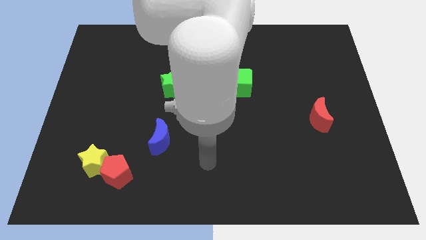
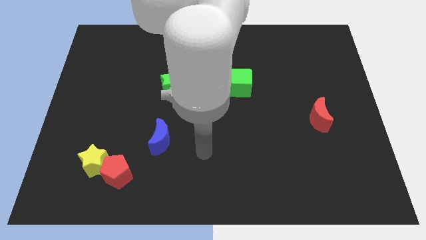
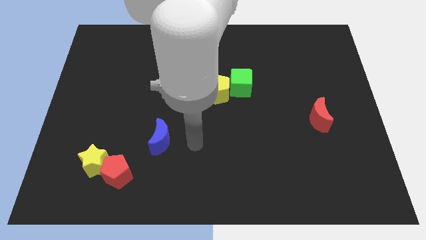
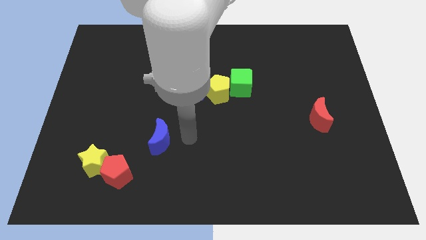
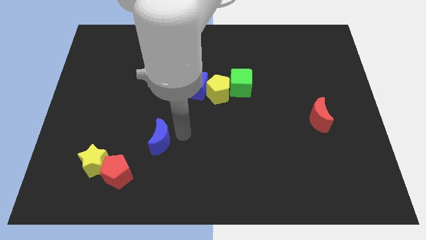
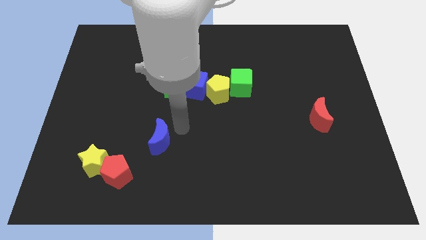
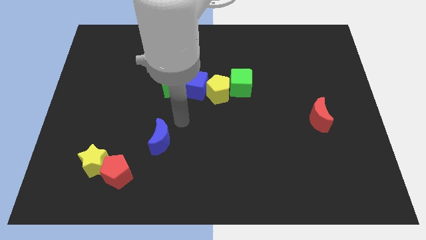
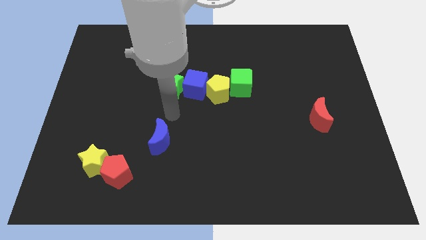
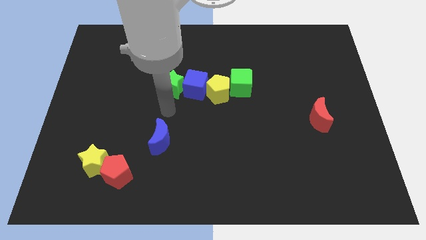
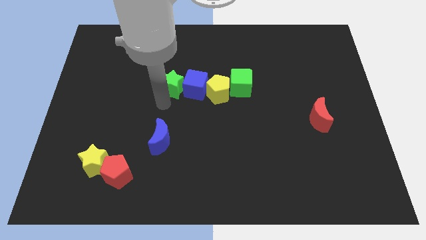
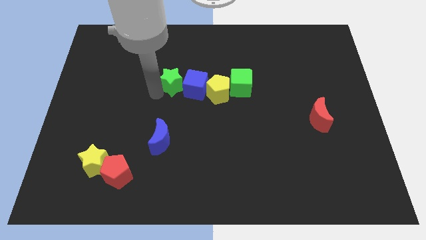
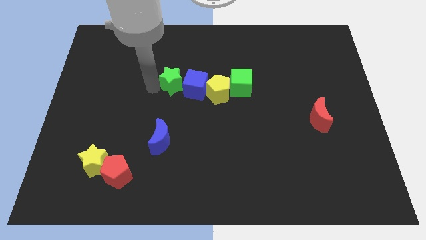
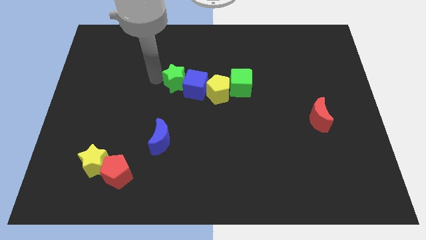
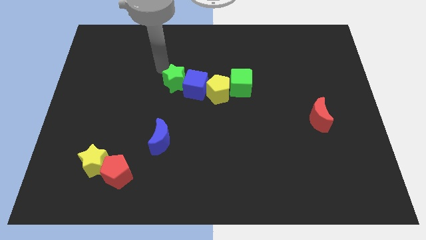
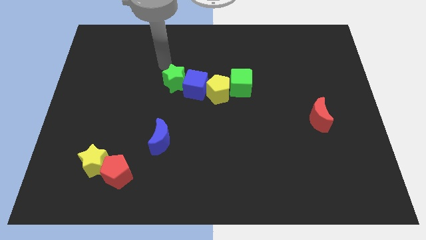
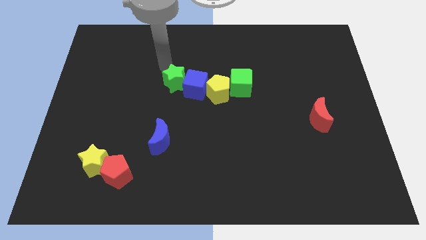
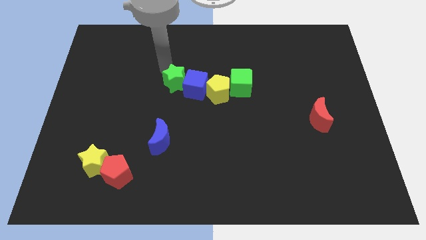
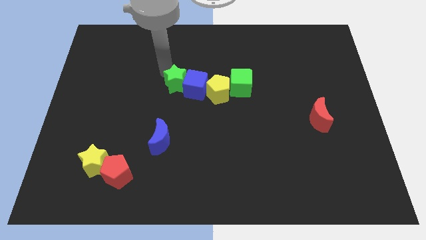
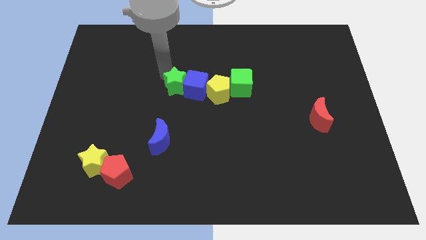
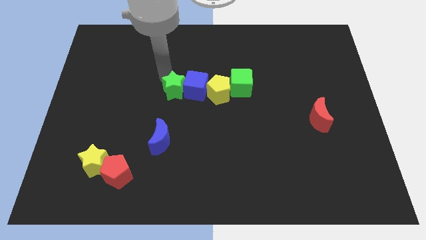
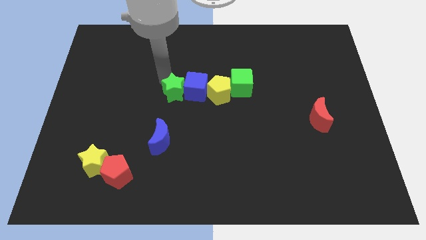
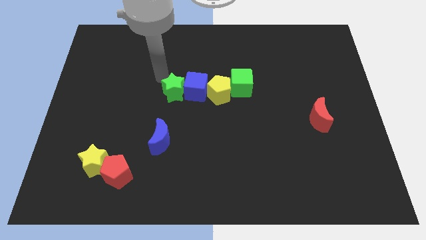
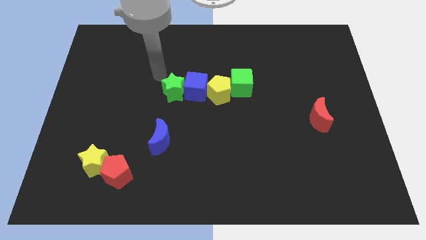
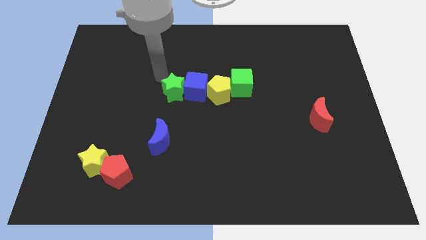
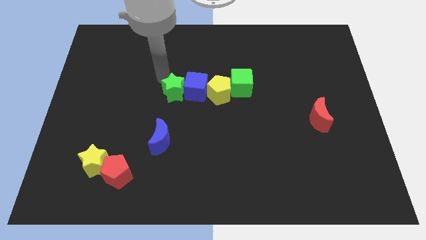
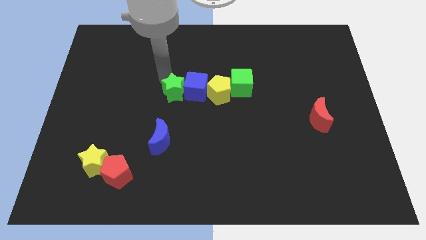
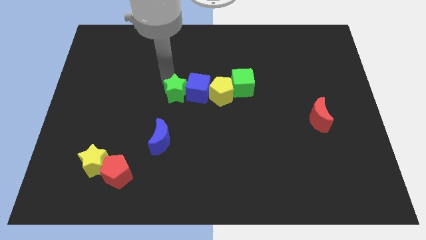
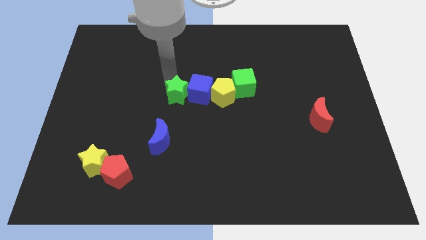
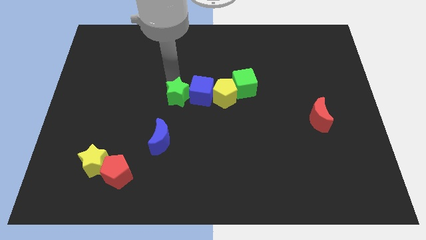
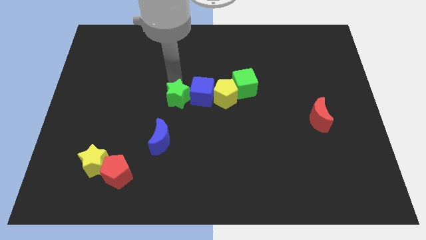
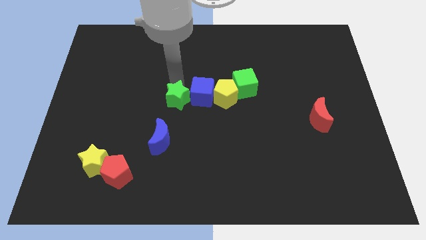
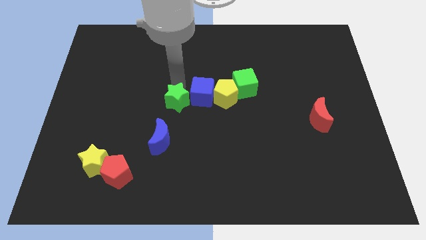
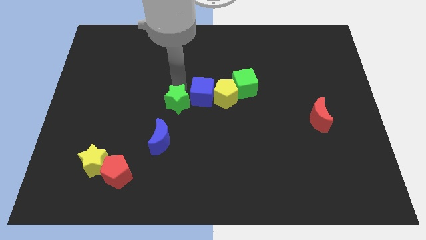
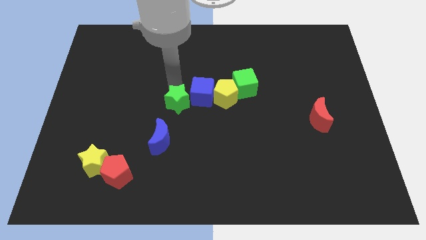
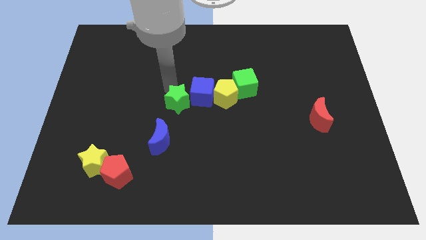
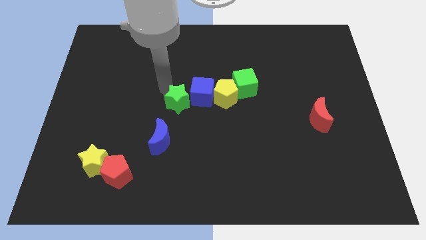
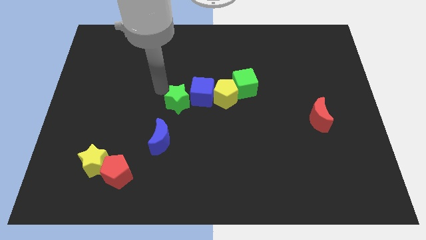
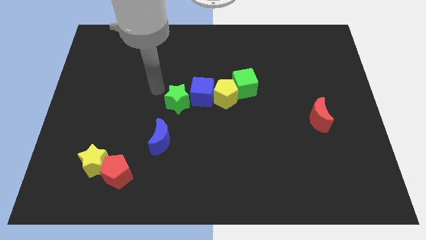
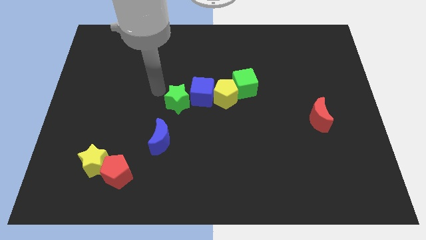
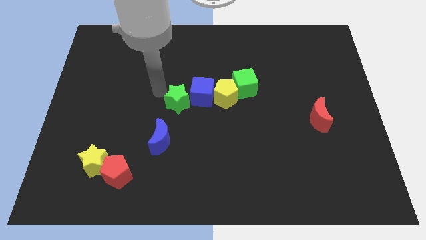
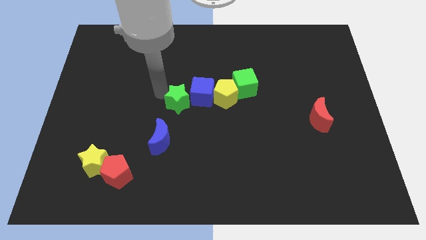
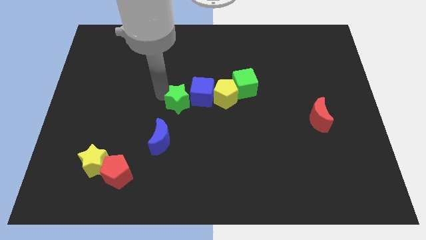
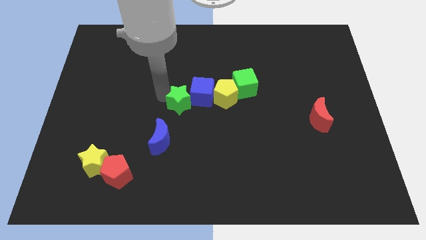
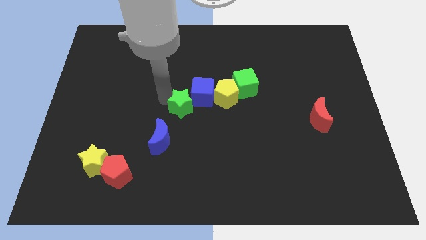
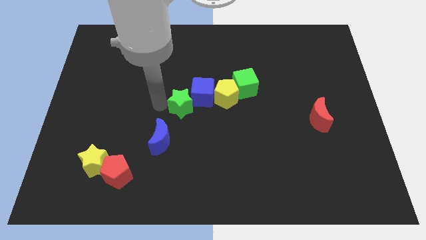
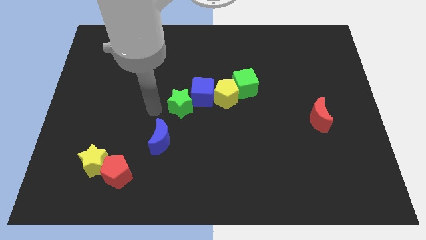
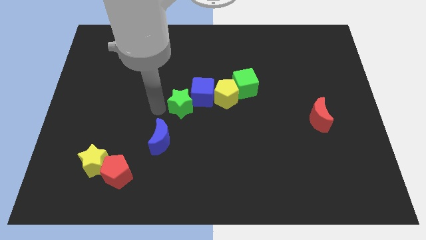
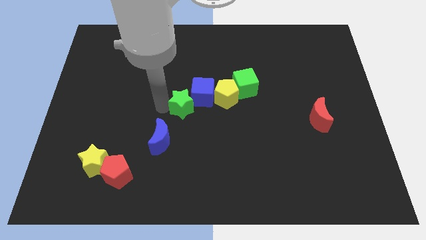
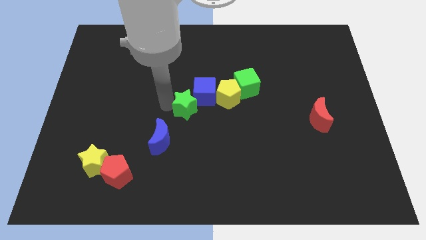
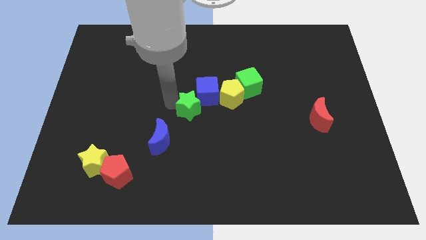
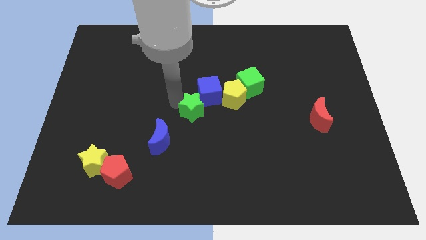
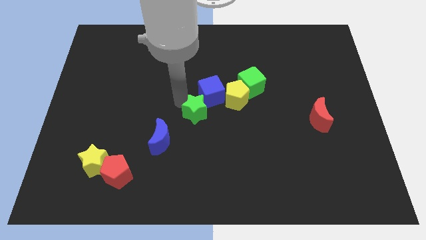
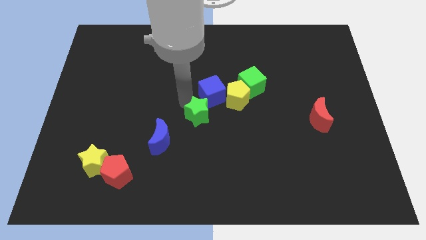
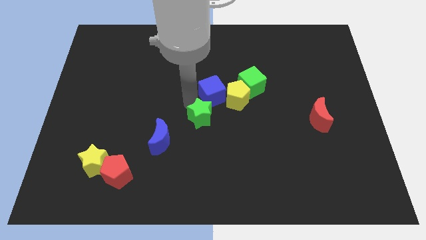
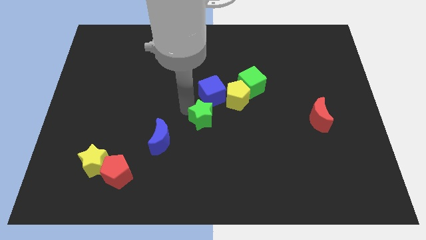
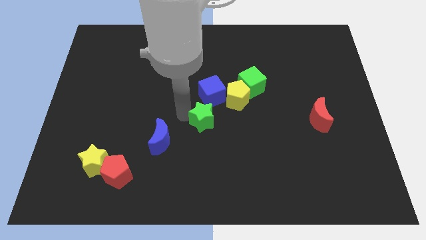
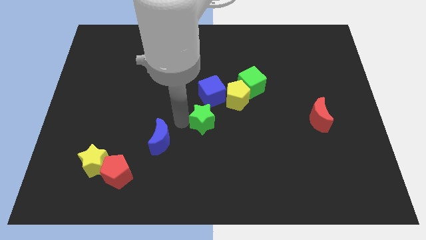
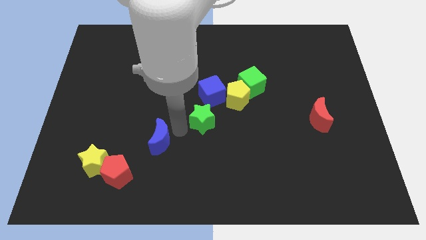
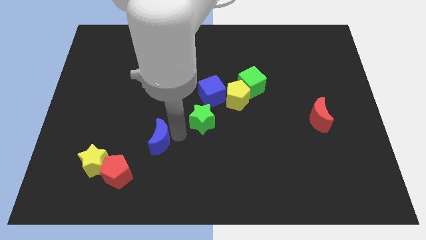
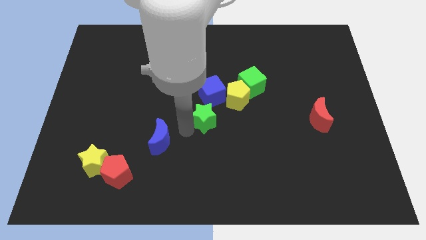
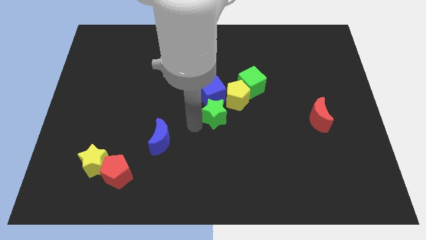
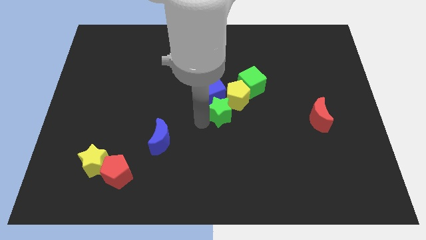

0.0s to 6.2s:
slide the green star towards the yellow pentagon

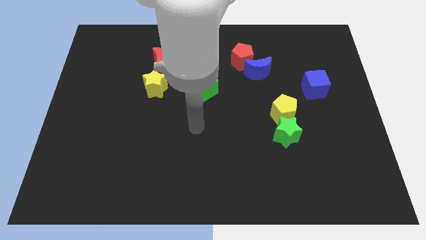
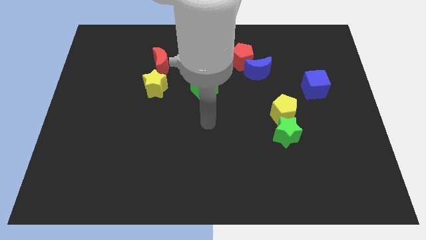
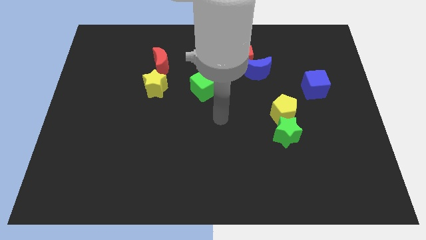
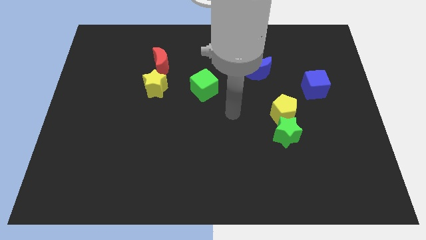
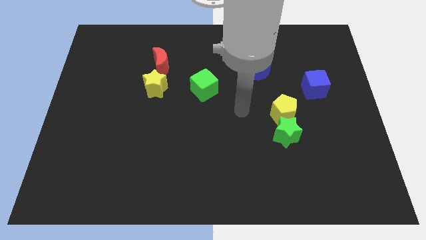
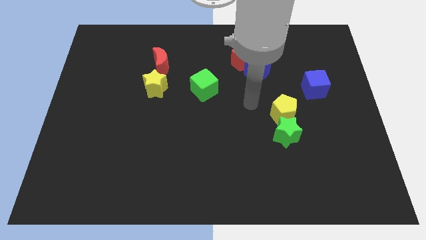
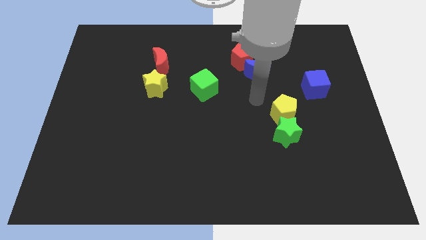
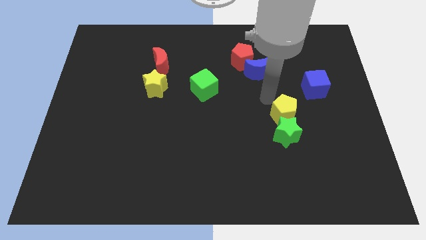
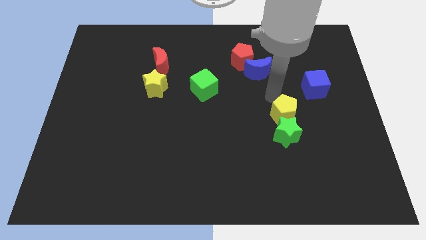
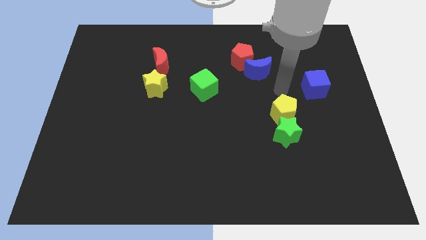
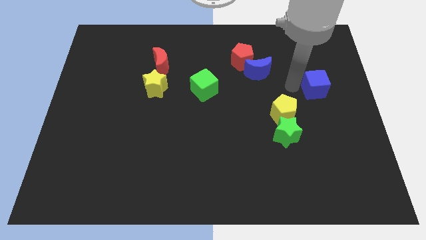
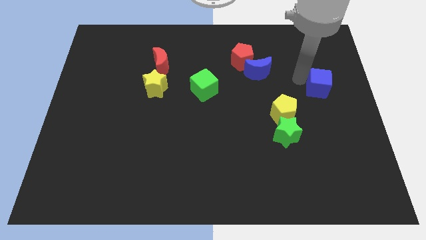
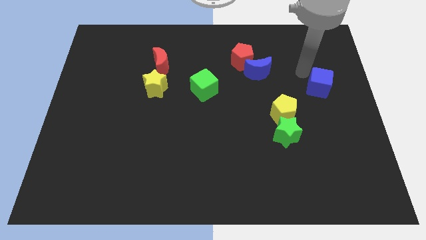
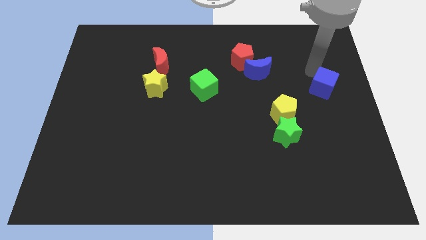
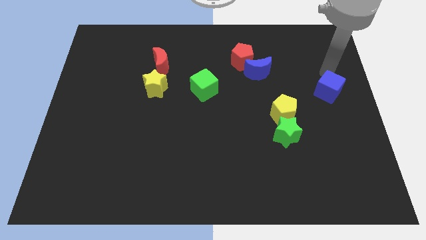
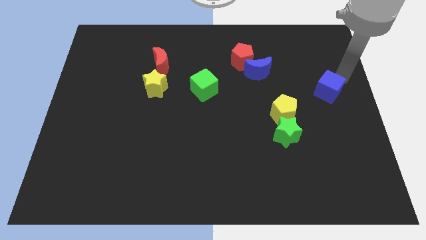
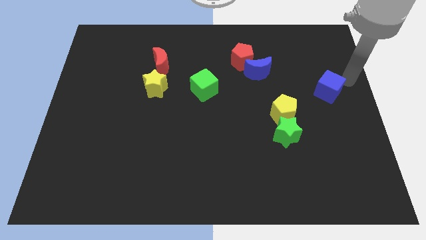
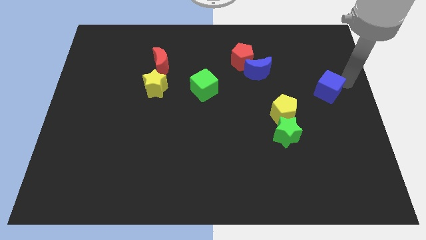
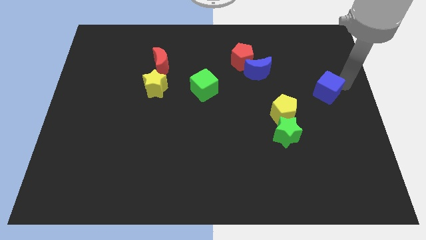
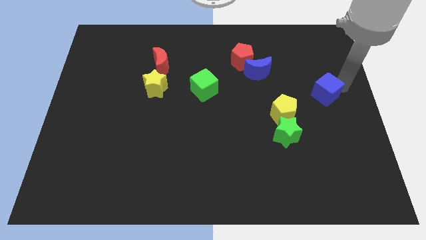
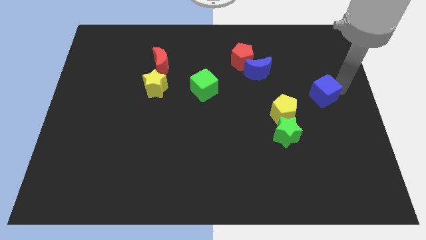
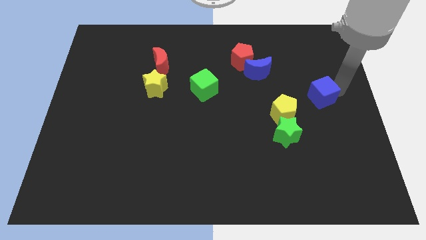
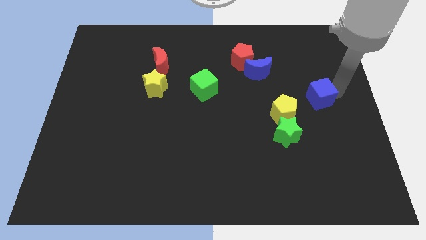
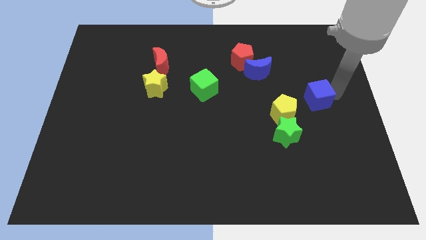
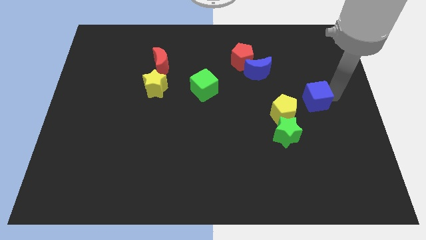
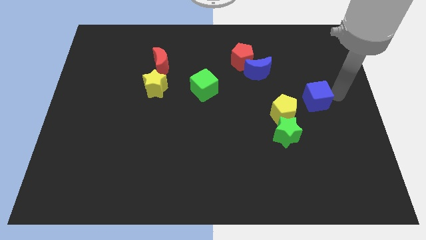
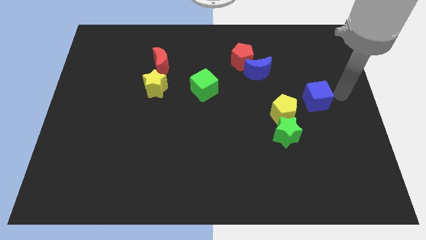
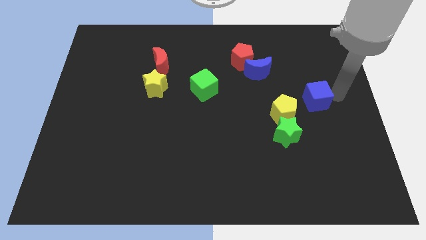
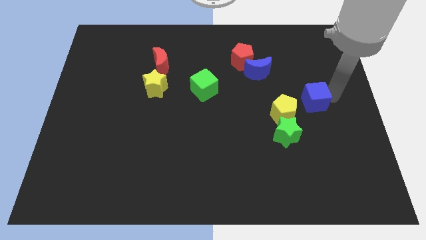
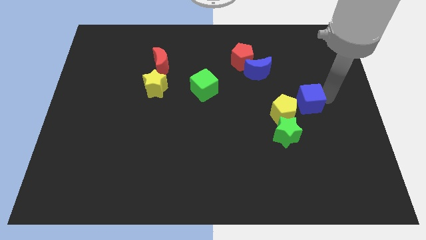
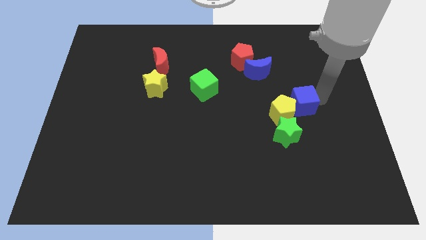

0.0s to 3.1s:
move the blue cube towards the yellow pentagon
